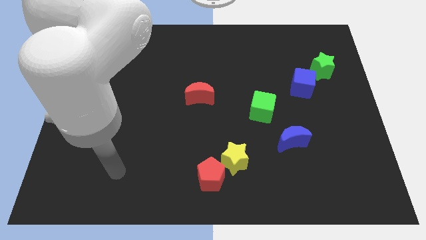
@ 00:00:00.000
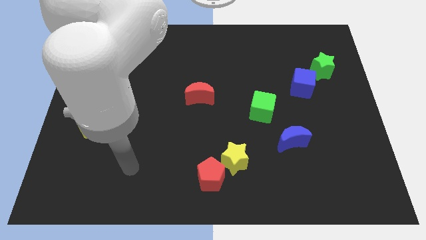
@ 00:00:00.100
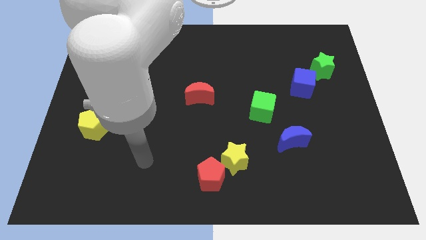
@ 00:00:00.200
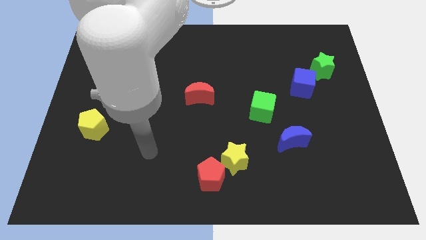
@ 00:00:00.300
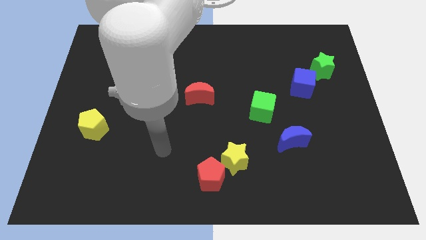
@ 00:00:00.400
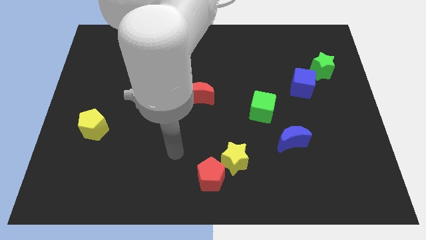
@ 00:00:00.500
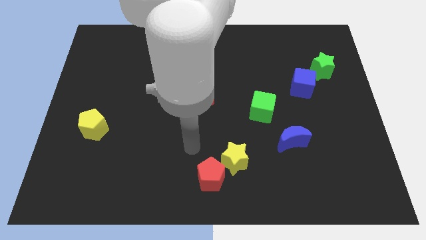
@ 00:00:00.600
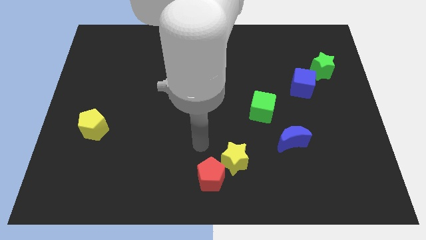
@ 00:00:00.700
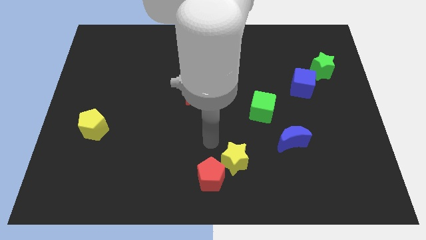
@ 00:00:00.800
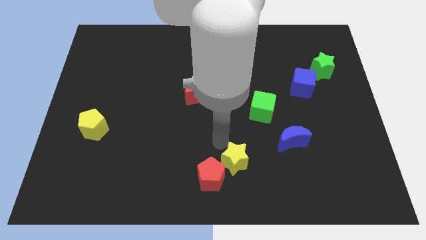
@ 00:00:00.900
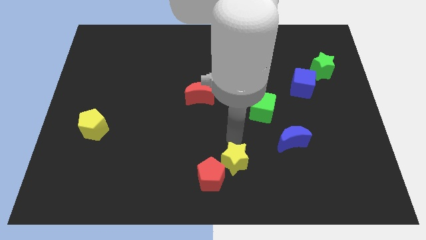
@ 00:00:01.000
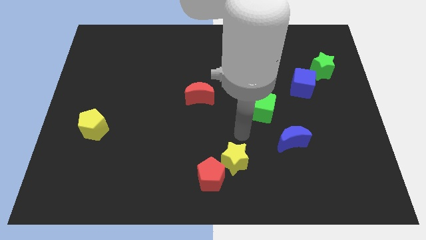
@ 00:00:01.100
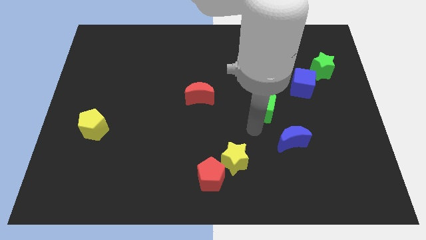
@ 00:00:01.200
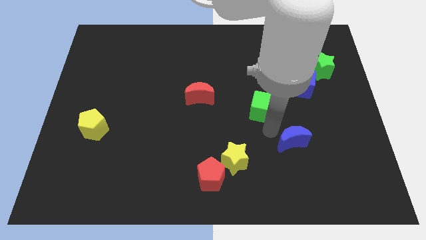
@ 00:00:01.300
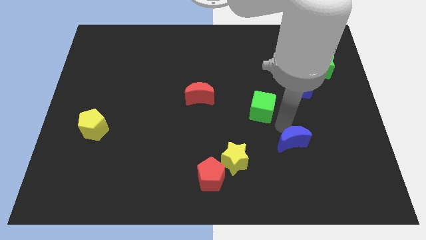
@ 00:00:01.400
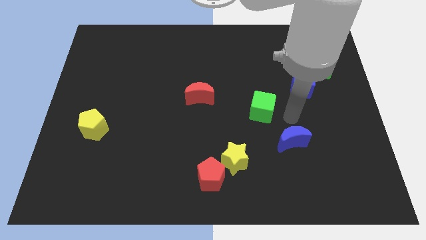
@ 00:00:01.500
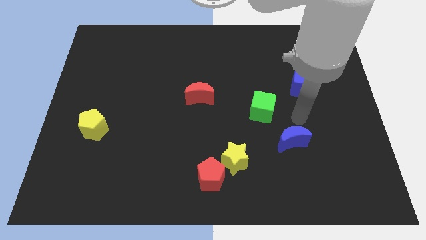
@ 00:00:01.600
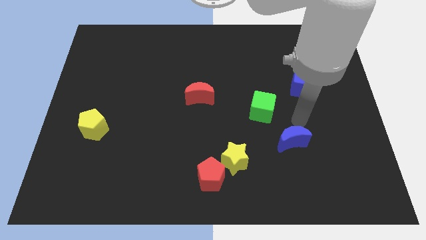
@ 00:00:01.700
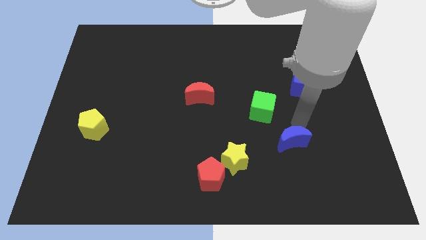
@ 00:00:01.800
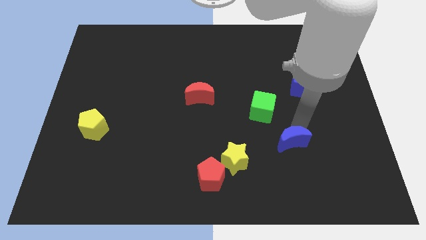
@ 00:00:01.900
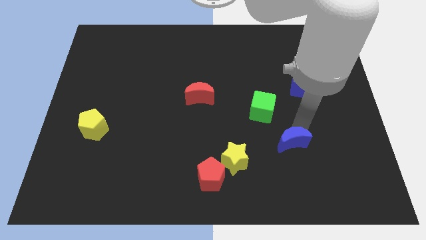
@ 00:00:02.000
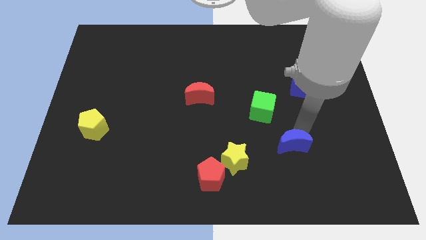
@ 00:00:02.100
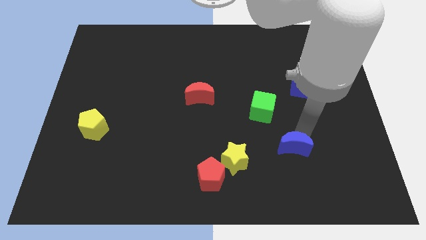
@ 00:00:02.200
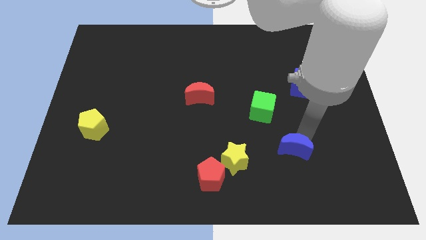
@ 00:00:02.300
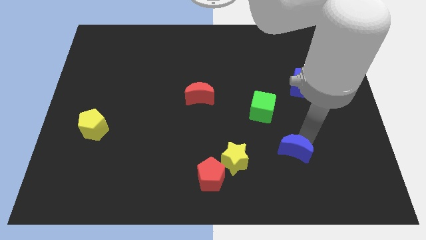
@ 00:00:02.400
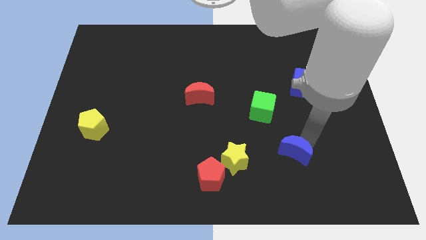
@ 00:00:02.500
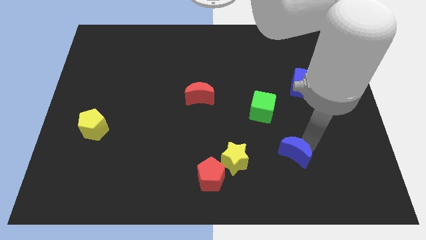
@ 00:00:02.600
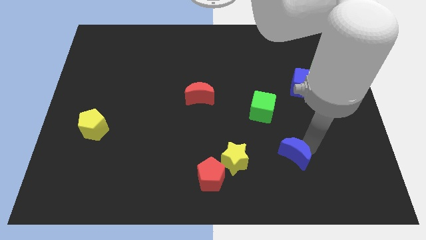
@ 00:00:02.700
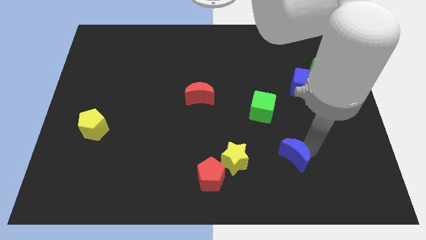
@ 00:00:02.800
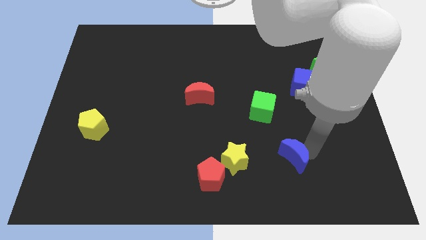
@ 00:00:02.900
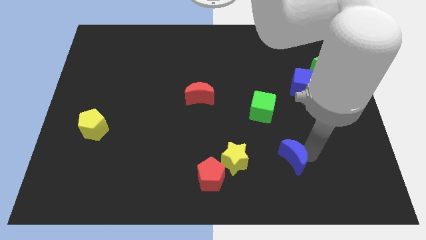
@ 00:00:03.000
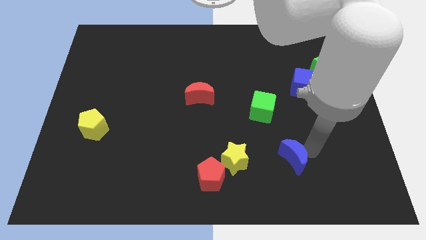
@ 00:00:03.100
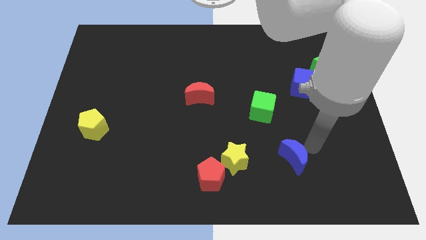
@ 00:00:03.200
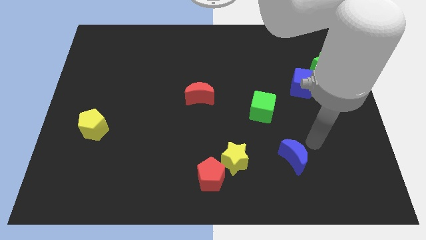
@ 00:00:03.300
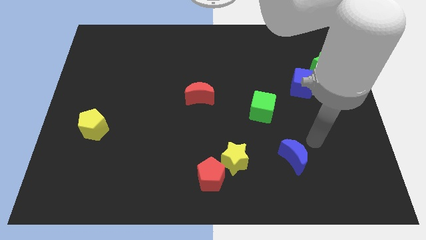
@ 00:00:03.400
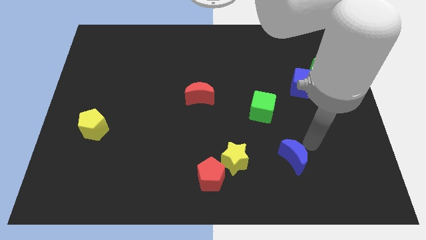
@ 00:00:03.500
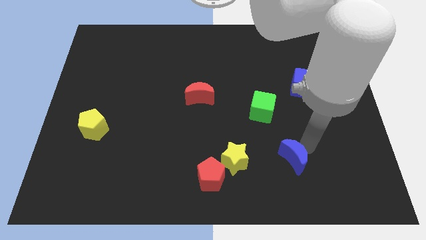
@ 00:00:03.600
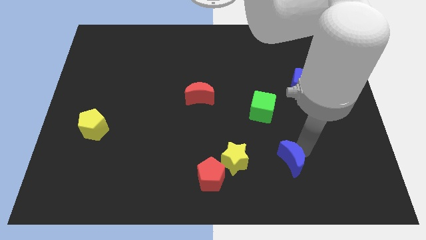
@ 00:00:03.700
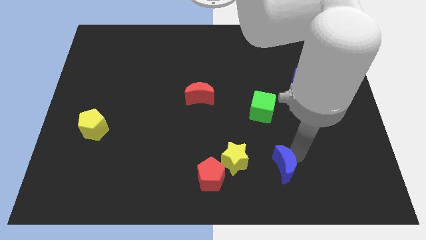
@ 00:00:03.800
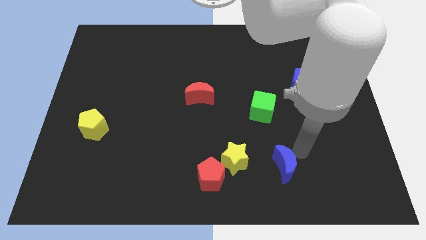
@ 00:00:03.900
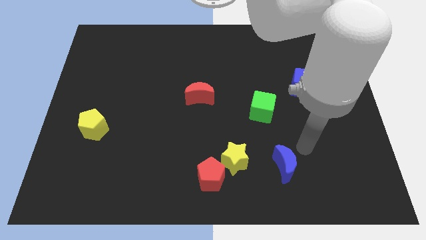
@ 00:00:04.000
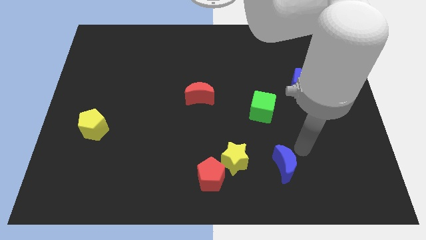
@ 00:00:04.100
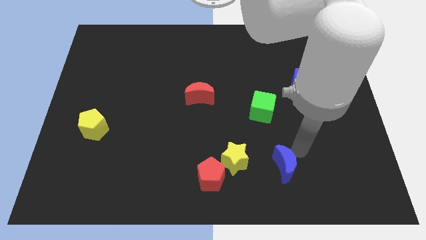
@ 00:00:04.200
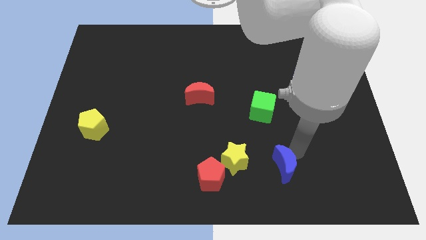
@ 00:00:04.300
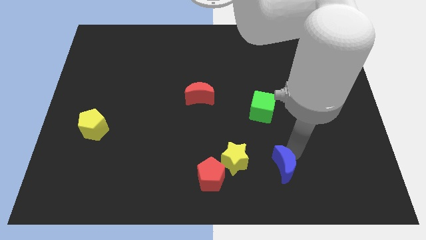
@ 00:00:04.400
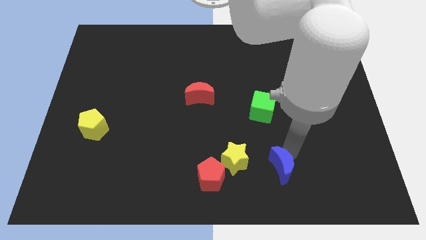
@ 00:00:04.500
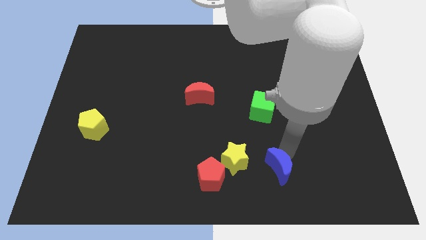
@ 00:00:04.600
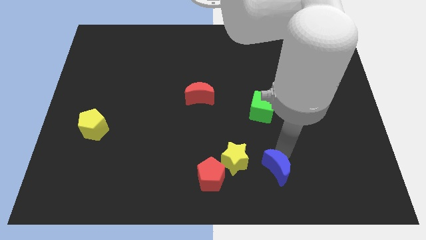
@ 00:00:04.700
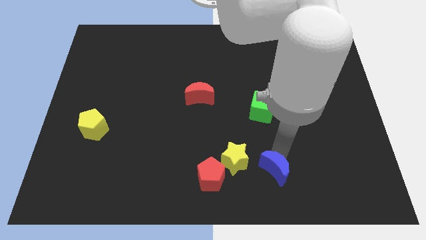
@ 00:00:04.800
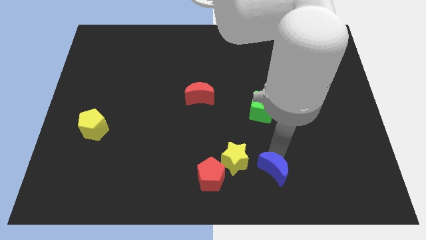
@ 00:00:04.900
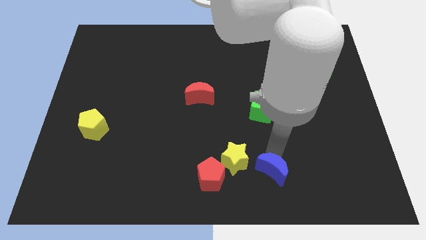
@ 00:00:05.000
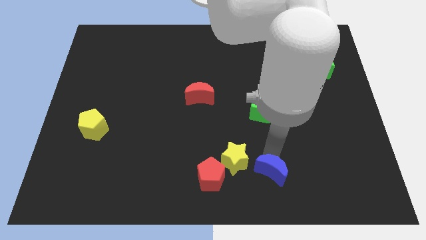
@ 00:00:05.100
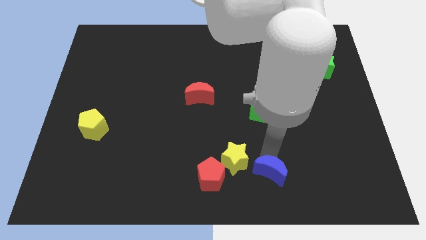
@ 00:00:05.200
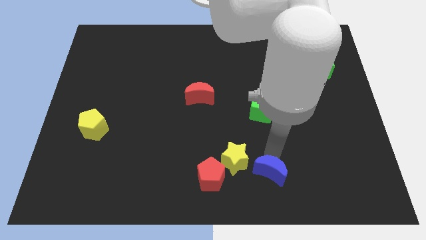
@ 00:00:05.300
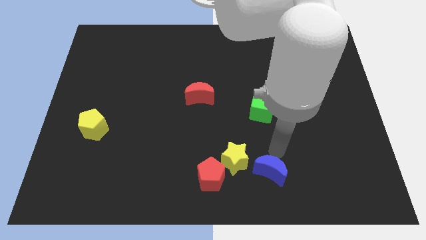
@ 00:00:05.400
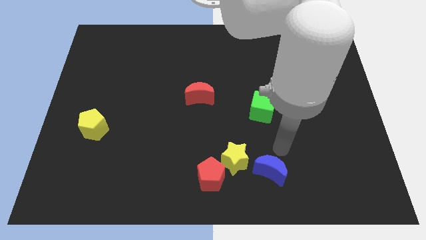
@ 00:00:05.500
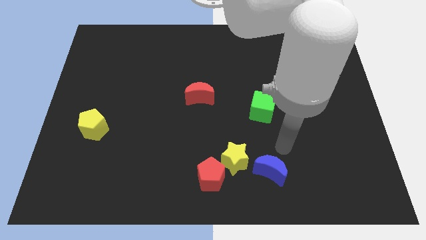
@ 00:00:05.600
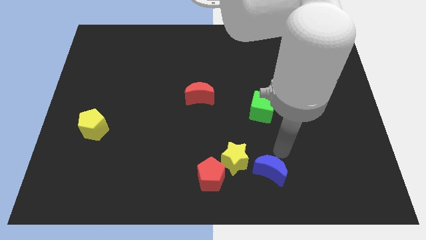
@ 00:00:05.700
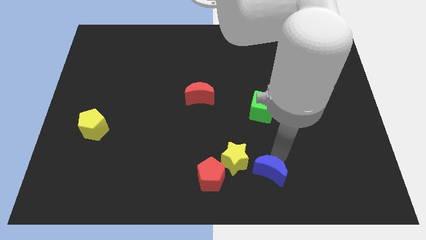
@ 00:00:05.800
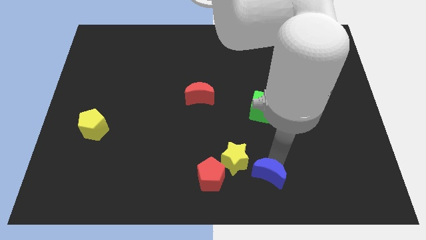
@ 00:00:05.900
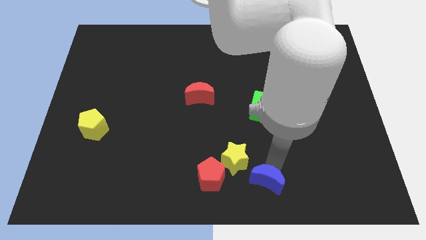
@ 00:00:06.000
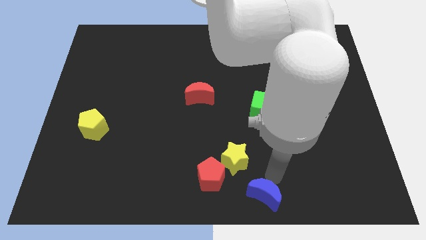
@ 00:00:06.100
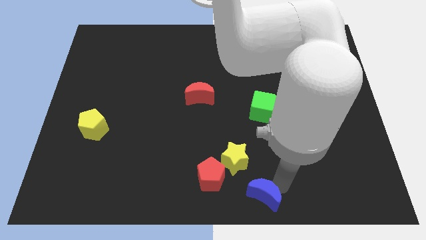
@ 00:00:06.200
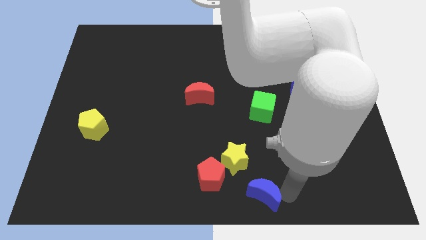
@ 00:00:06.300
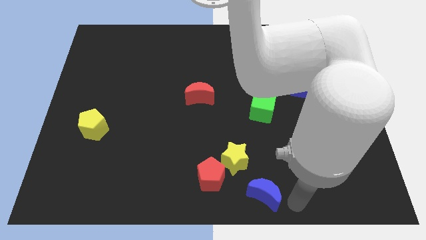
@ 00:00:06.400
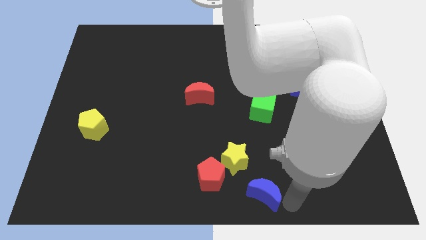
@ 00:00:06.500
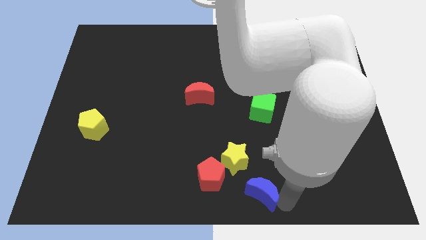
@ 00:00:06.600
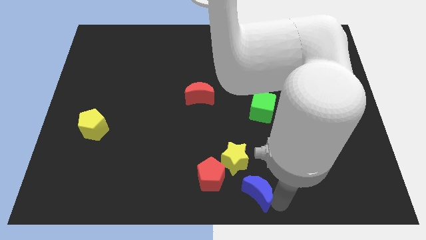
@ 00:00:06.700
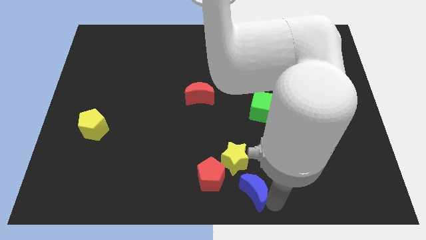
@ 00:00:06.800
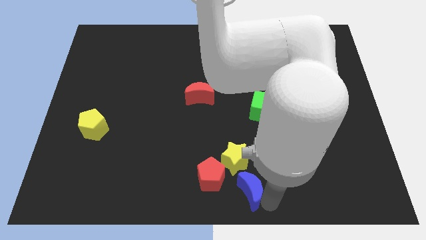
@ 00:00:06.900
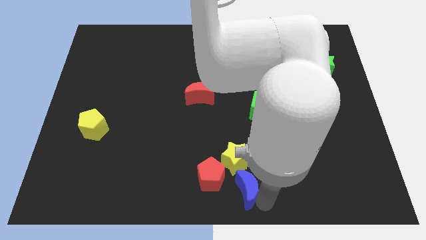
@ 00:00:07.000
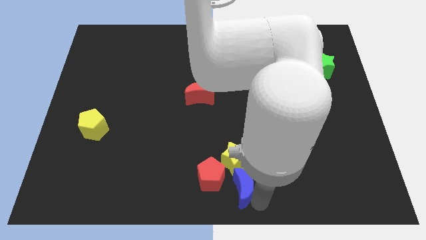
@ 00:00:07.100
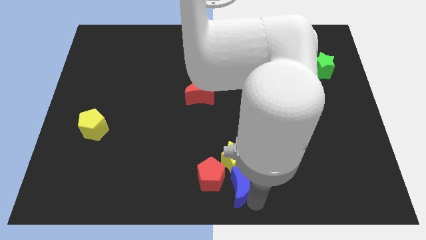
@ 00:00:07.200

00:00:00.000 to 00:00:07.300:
slide the blue moon close to the red pentagon
